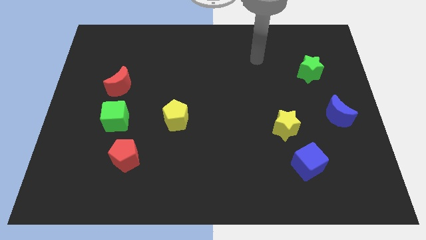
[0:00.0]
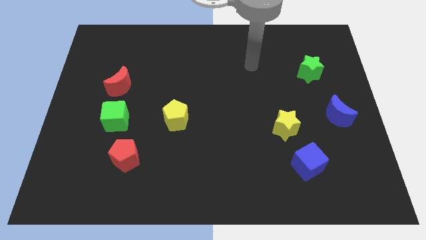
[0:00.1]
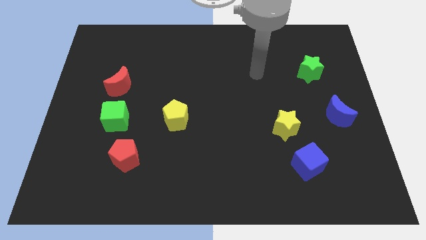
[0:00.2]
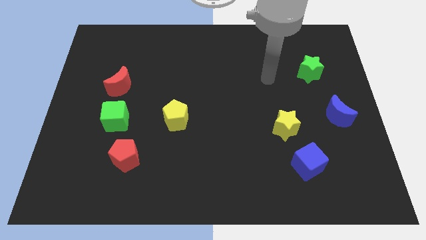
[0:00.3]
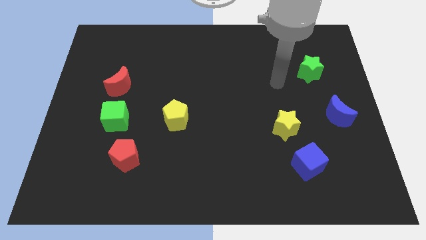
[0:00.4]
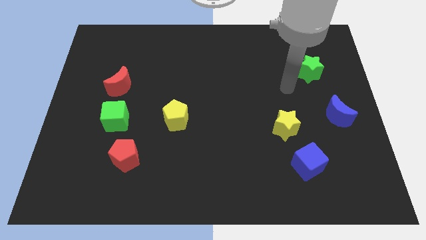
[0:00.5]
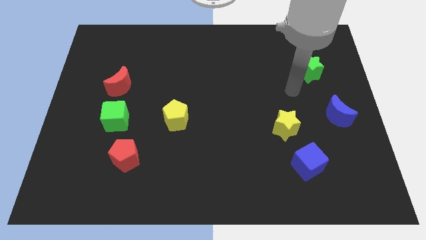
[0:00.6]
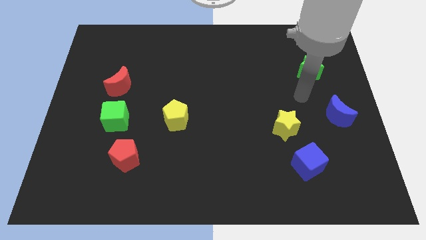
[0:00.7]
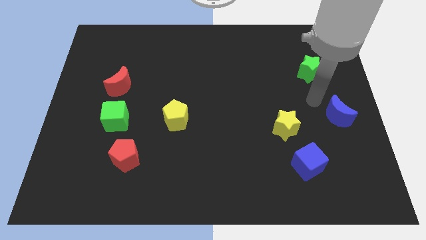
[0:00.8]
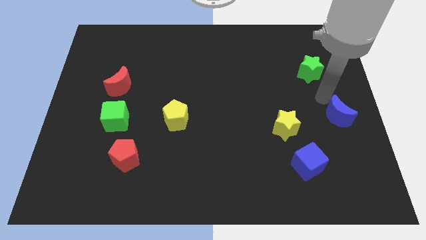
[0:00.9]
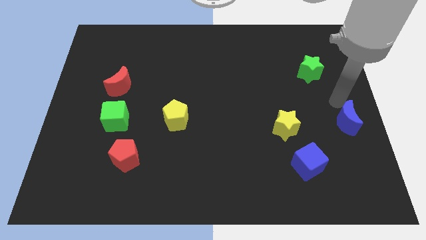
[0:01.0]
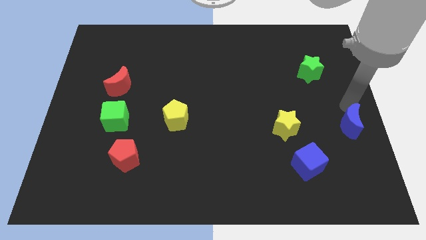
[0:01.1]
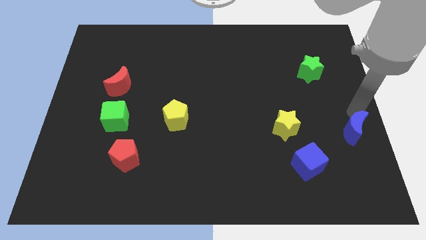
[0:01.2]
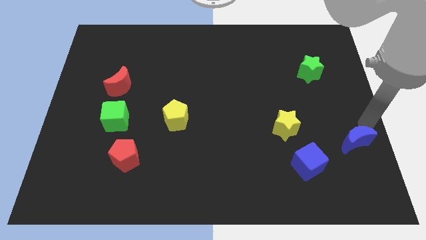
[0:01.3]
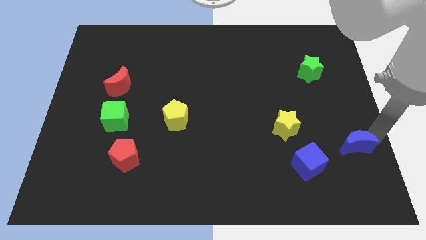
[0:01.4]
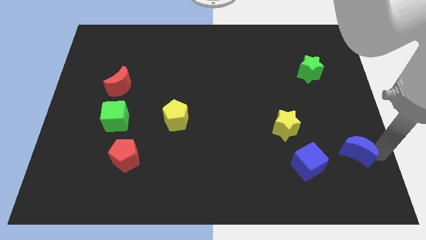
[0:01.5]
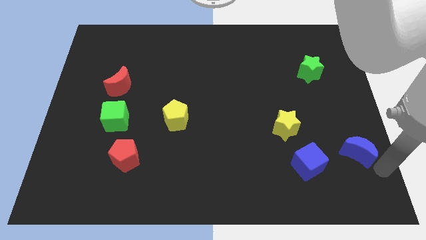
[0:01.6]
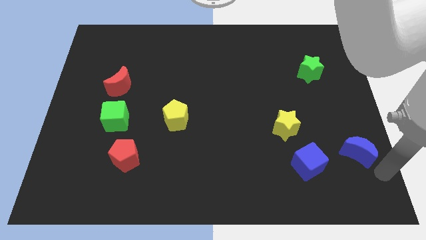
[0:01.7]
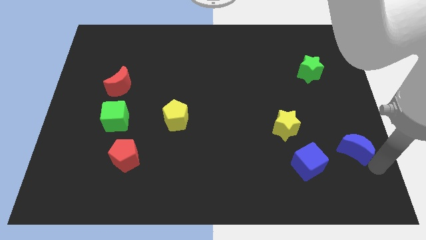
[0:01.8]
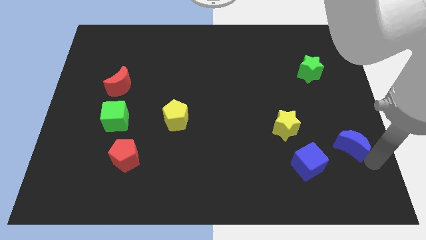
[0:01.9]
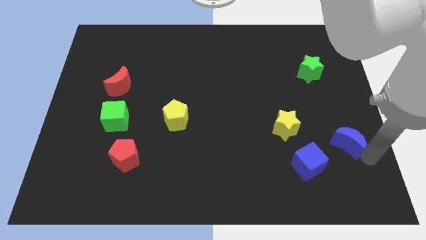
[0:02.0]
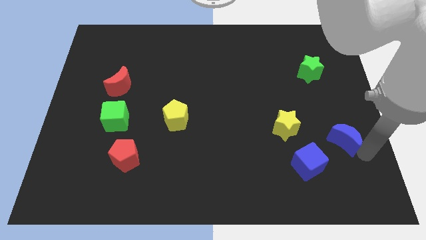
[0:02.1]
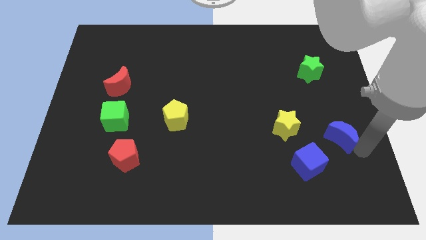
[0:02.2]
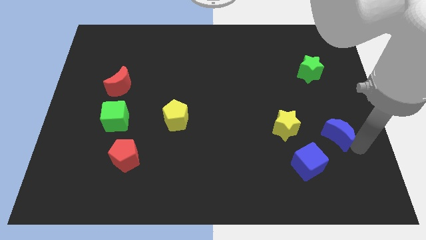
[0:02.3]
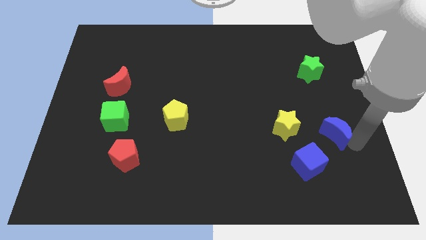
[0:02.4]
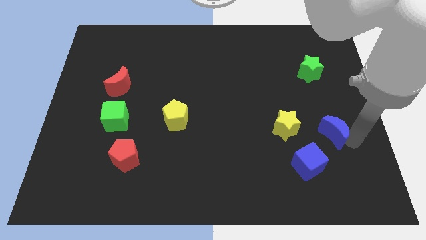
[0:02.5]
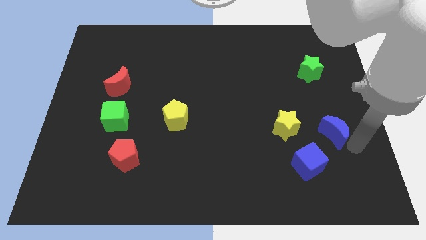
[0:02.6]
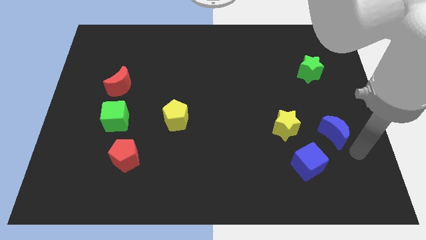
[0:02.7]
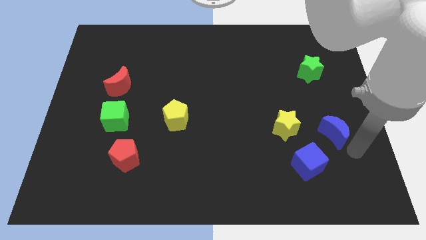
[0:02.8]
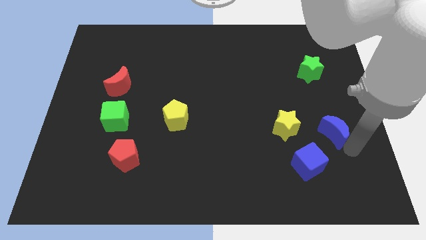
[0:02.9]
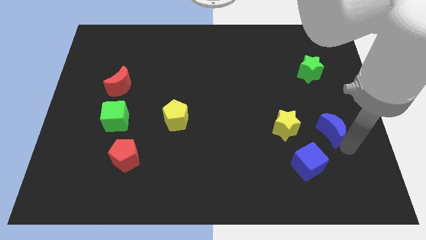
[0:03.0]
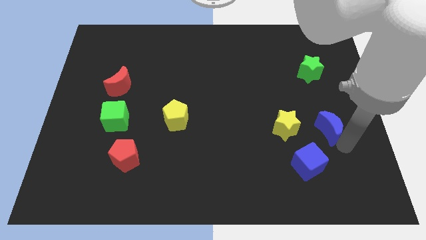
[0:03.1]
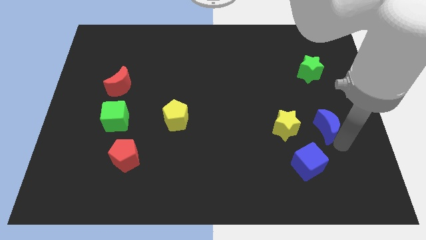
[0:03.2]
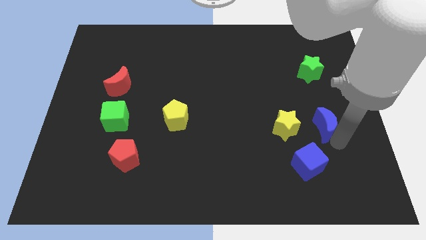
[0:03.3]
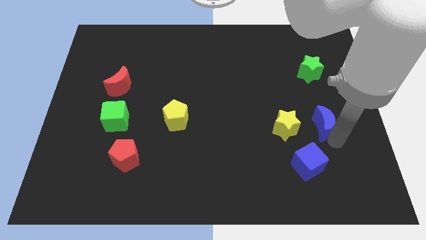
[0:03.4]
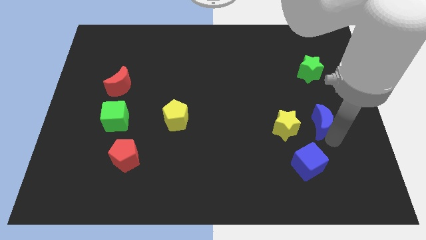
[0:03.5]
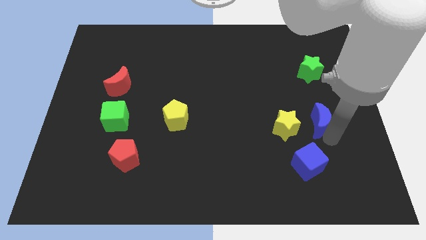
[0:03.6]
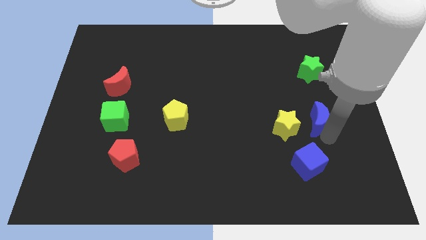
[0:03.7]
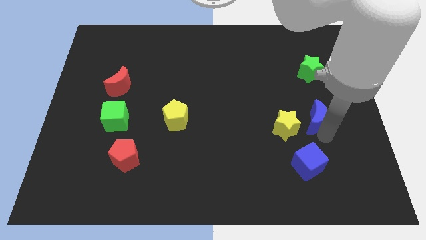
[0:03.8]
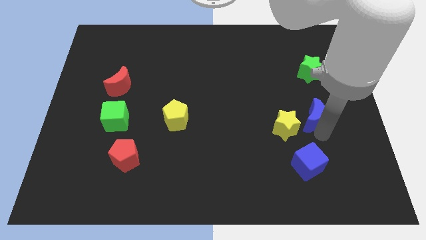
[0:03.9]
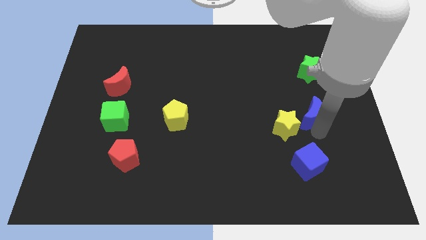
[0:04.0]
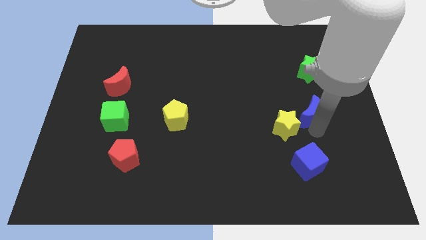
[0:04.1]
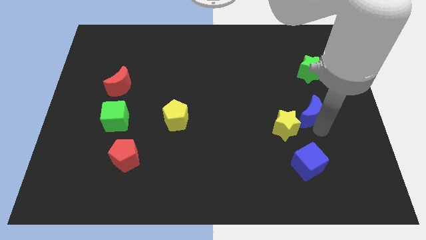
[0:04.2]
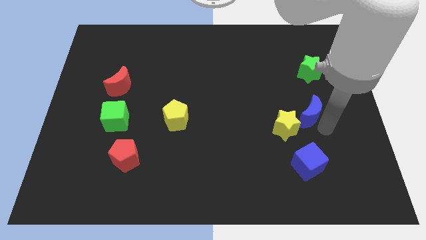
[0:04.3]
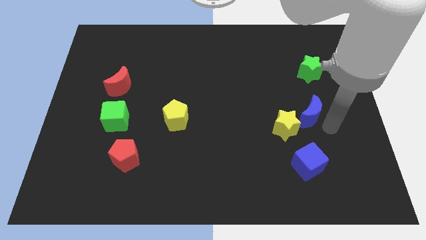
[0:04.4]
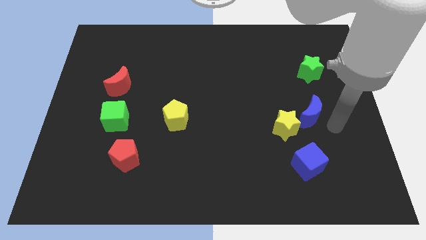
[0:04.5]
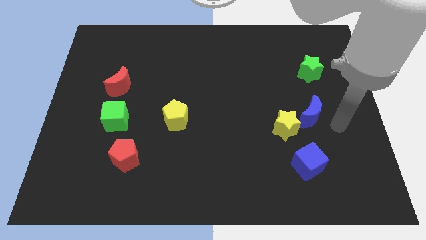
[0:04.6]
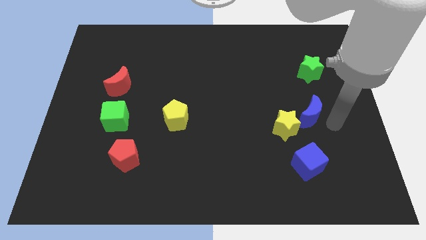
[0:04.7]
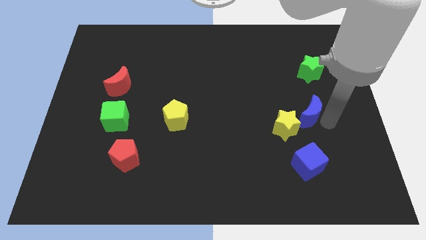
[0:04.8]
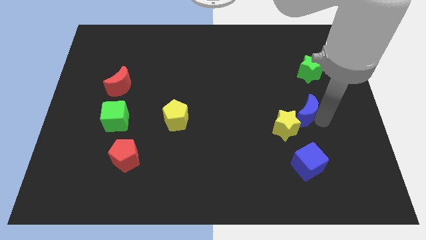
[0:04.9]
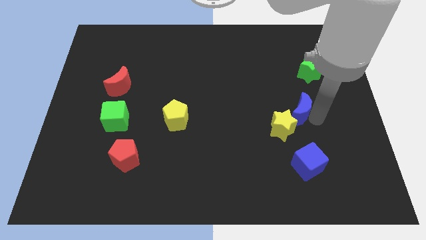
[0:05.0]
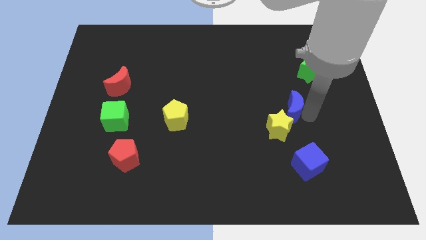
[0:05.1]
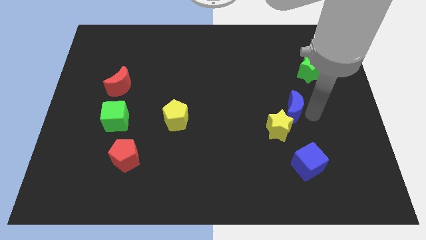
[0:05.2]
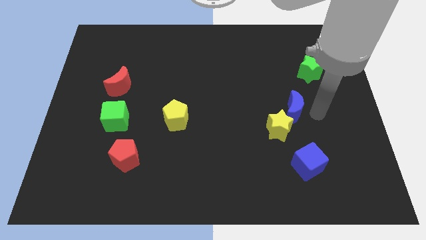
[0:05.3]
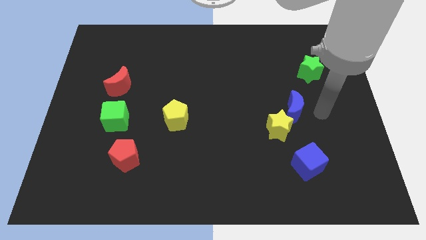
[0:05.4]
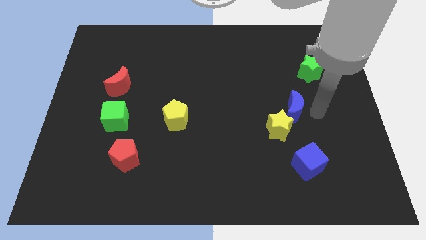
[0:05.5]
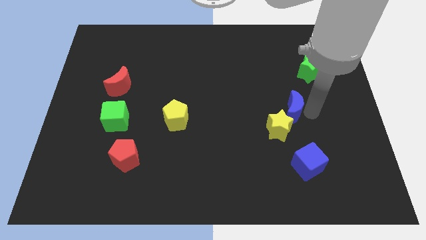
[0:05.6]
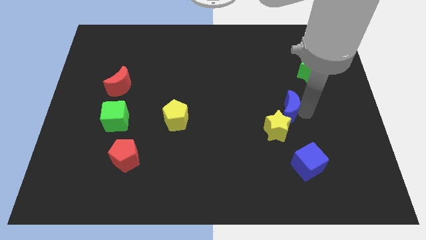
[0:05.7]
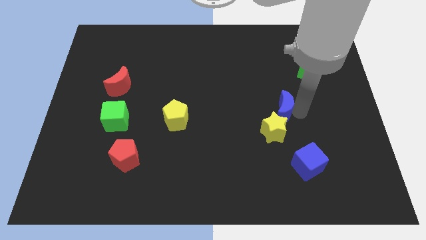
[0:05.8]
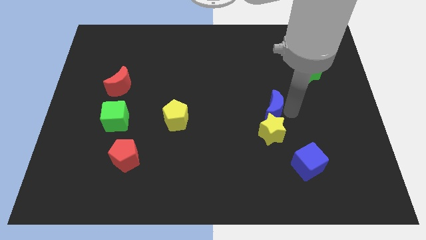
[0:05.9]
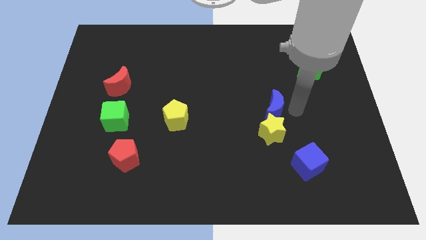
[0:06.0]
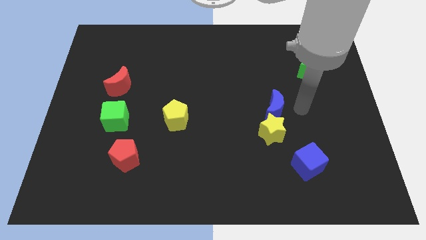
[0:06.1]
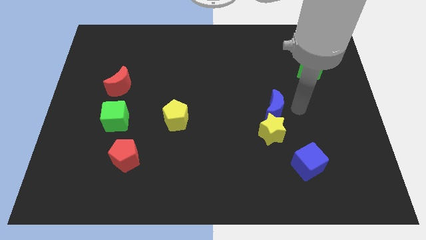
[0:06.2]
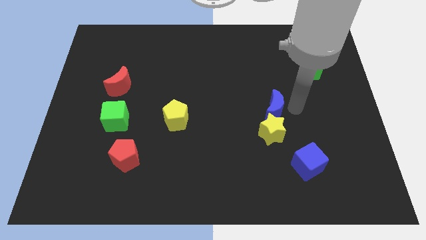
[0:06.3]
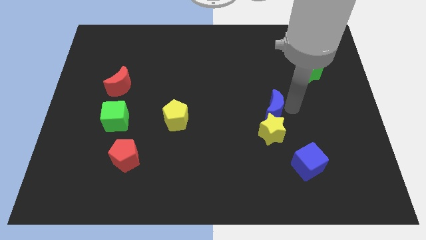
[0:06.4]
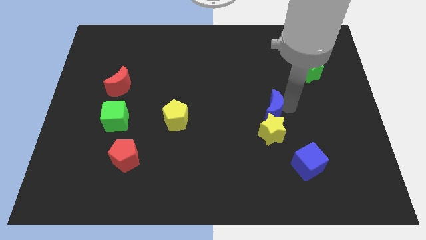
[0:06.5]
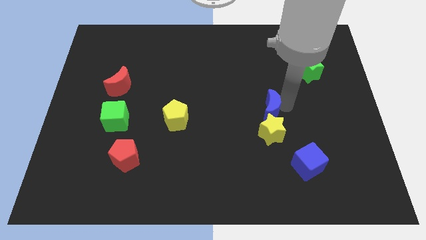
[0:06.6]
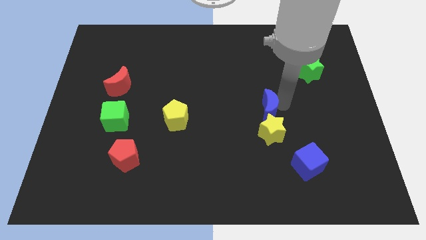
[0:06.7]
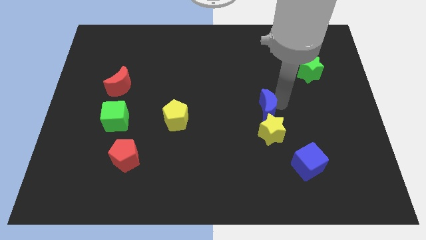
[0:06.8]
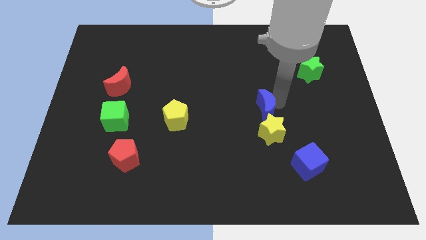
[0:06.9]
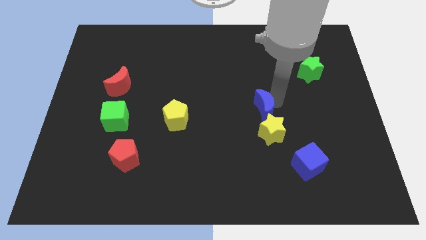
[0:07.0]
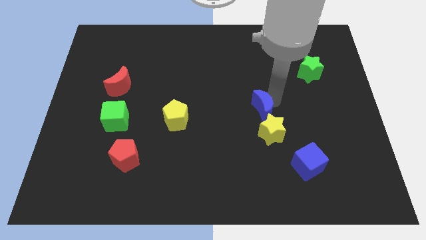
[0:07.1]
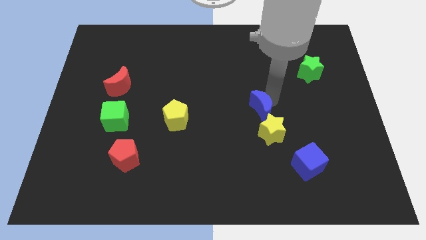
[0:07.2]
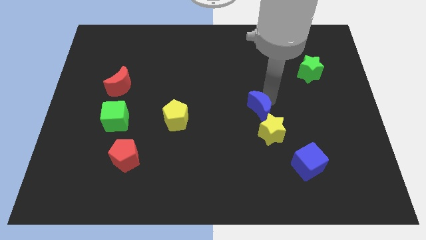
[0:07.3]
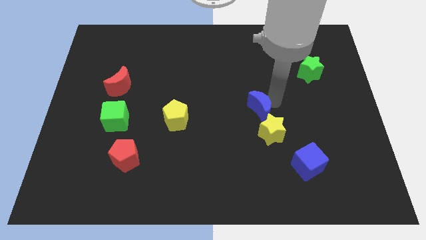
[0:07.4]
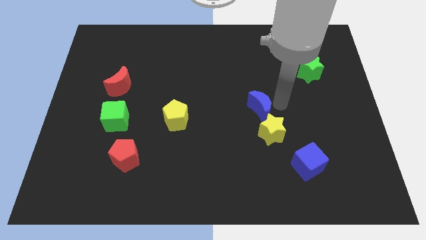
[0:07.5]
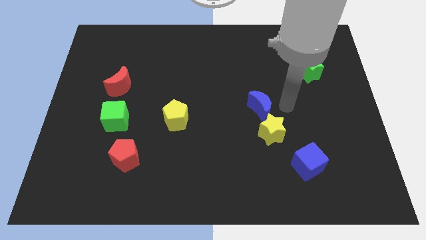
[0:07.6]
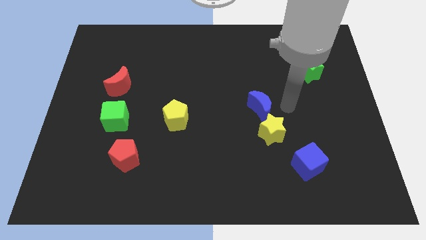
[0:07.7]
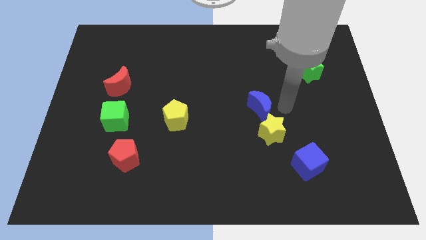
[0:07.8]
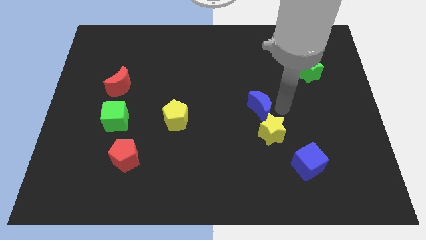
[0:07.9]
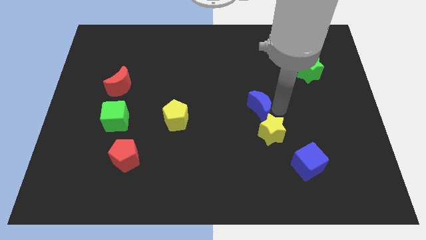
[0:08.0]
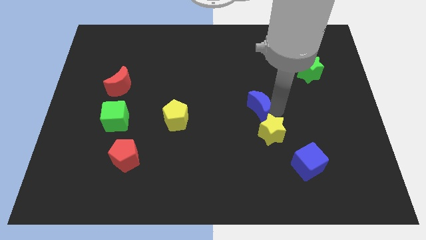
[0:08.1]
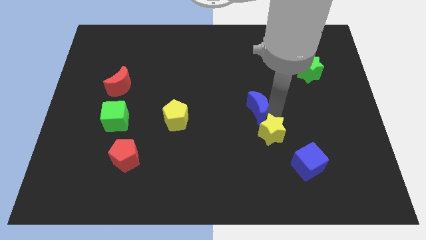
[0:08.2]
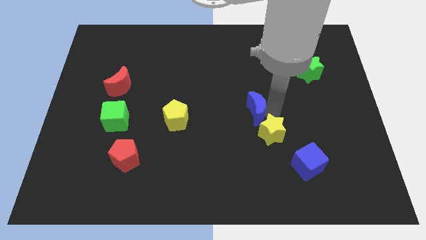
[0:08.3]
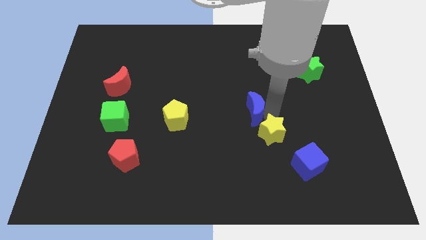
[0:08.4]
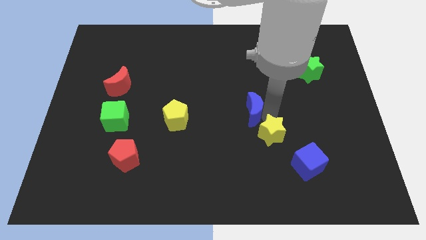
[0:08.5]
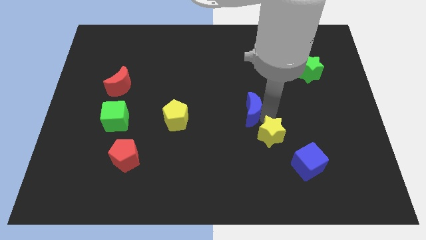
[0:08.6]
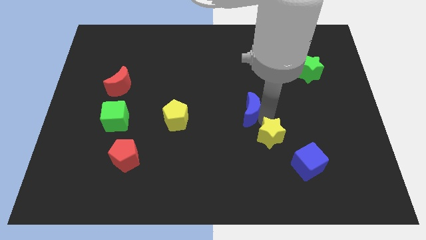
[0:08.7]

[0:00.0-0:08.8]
move the blue moon left
